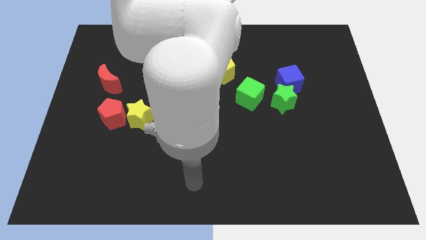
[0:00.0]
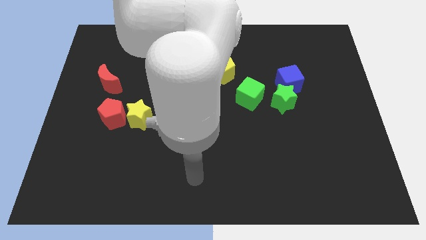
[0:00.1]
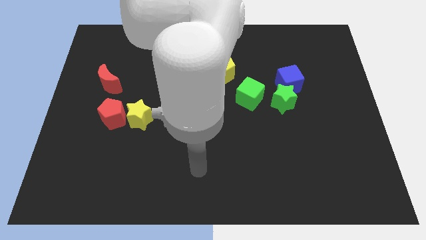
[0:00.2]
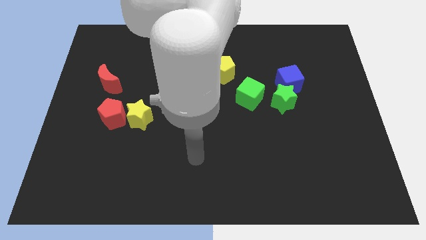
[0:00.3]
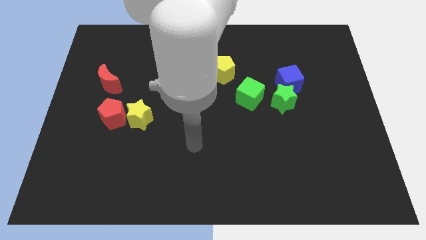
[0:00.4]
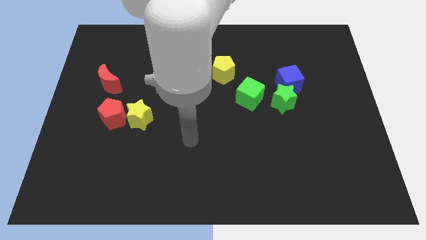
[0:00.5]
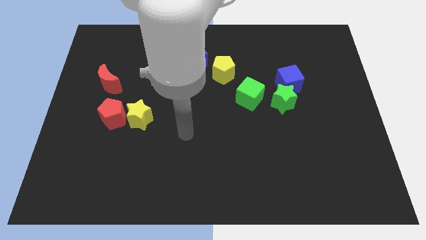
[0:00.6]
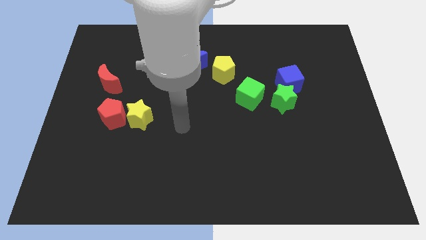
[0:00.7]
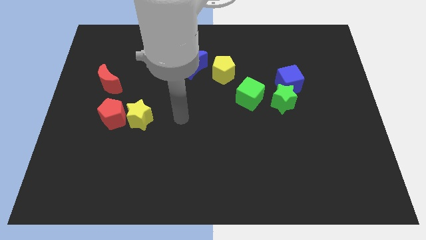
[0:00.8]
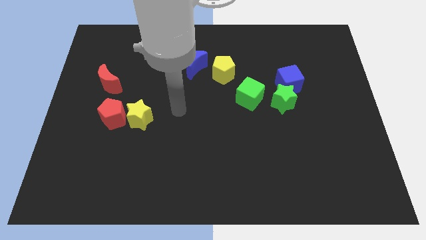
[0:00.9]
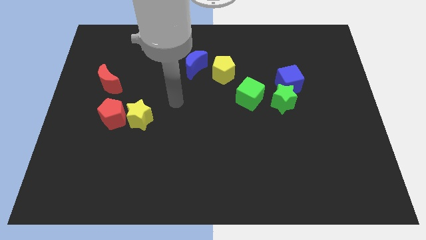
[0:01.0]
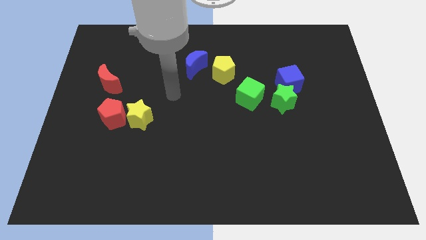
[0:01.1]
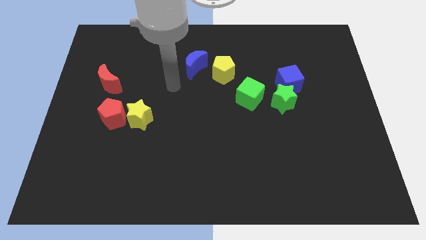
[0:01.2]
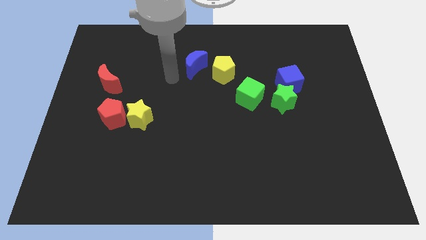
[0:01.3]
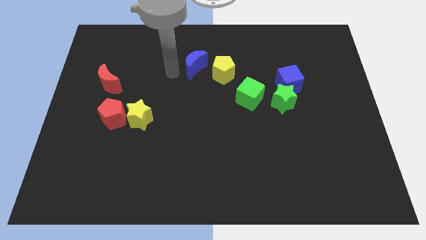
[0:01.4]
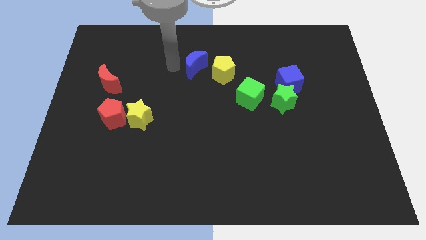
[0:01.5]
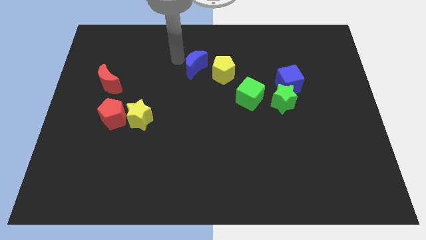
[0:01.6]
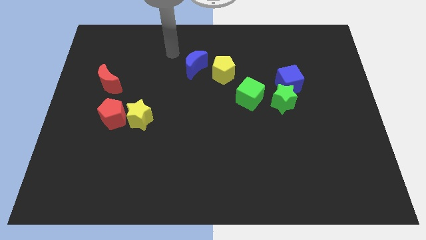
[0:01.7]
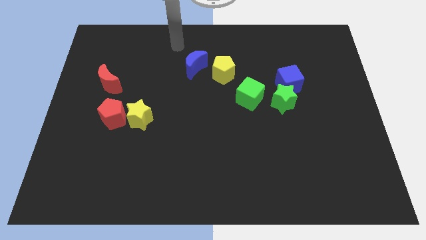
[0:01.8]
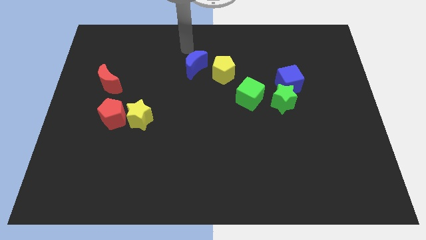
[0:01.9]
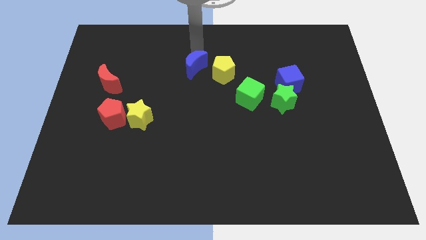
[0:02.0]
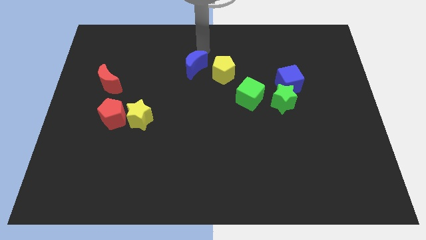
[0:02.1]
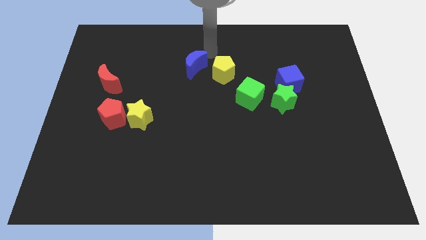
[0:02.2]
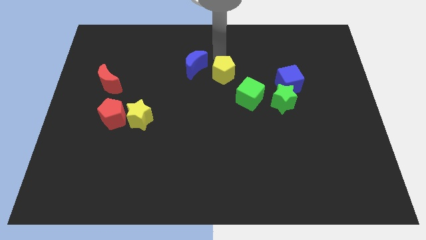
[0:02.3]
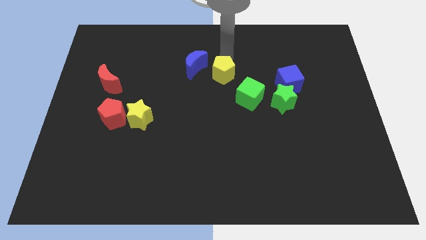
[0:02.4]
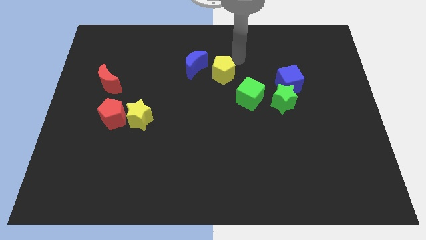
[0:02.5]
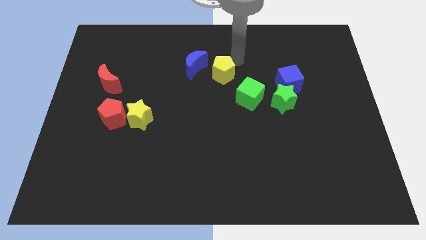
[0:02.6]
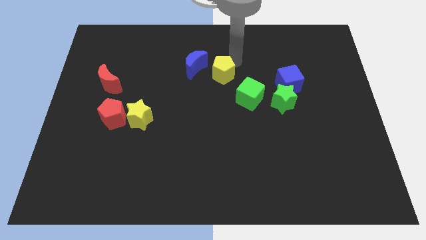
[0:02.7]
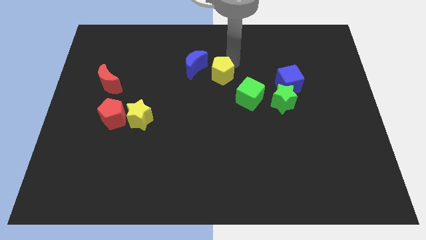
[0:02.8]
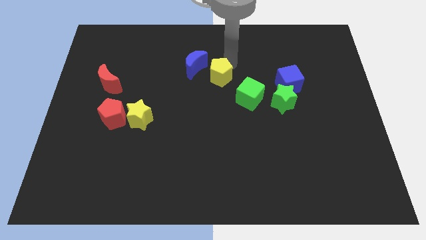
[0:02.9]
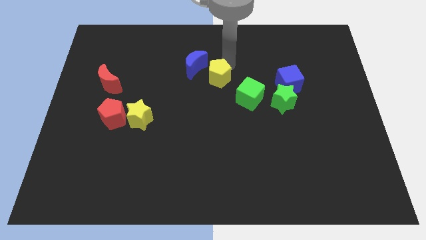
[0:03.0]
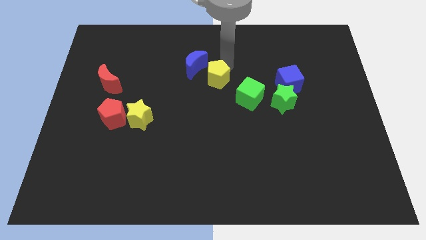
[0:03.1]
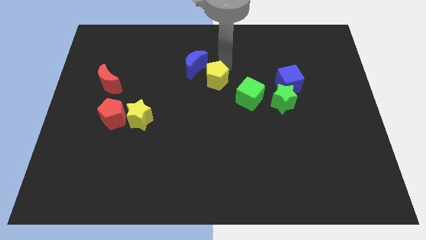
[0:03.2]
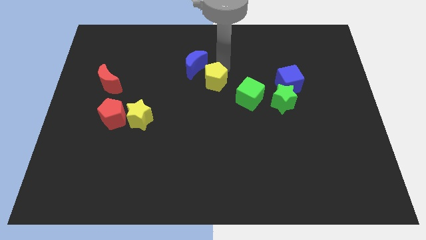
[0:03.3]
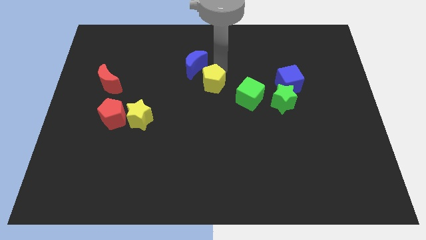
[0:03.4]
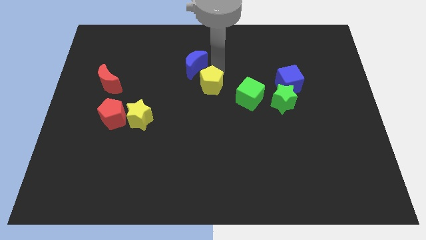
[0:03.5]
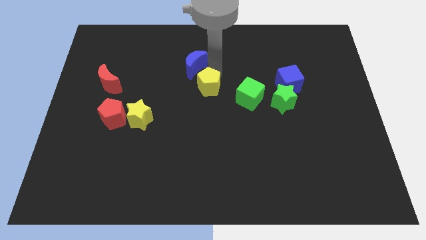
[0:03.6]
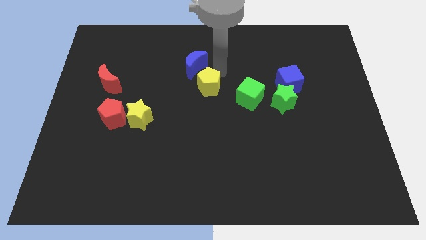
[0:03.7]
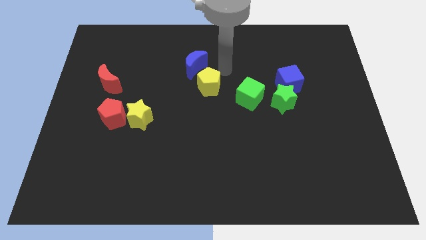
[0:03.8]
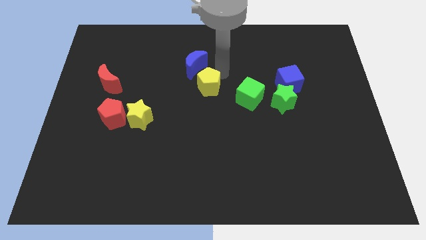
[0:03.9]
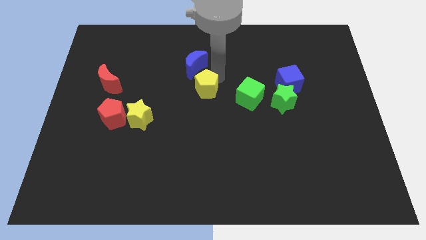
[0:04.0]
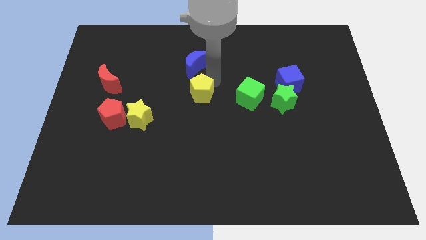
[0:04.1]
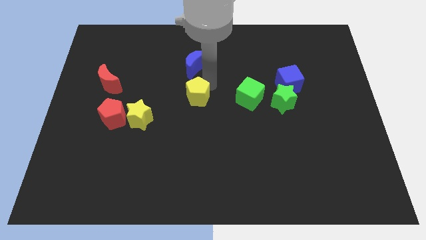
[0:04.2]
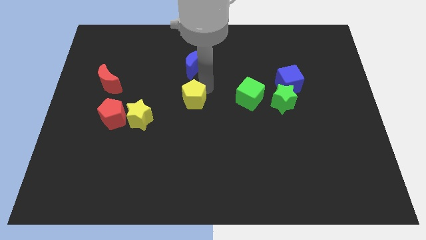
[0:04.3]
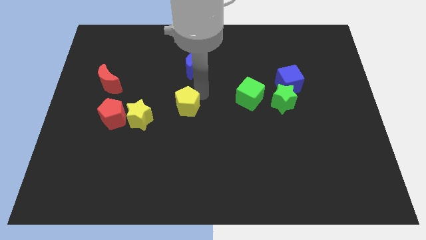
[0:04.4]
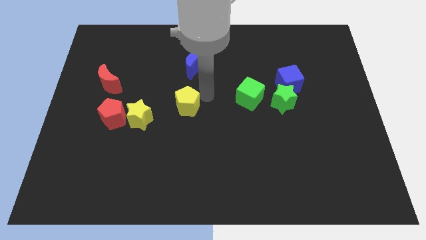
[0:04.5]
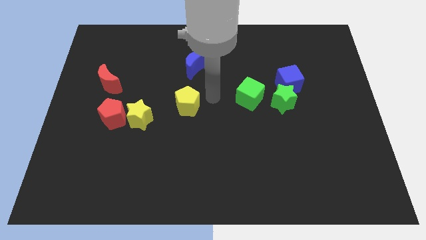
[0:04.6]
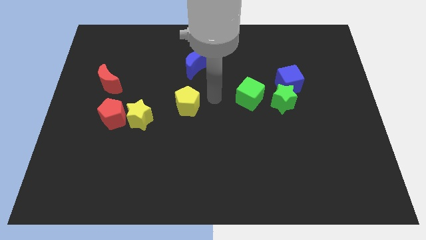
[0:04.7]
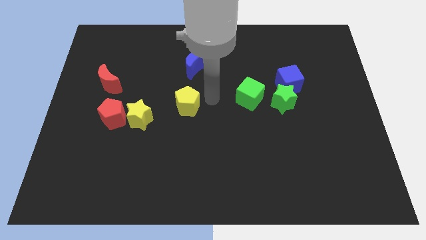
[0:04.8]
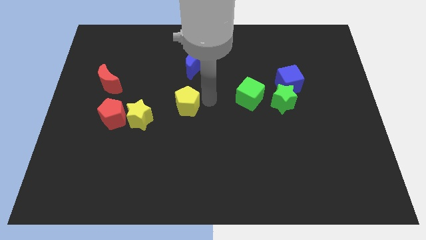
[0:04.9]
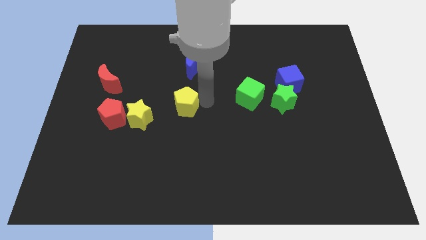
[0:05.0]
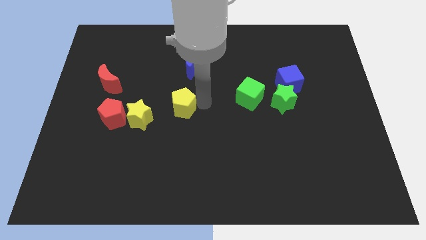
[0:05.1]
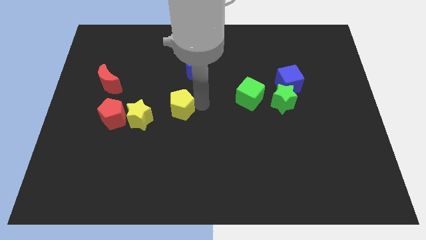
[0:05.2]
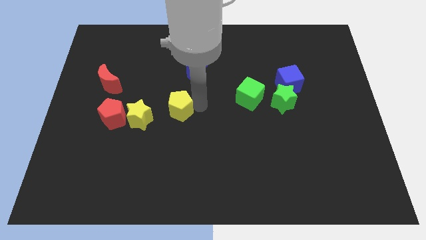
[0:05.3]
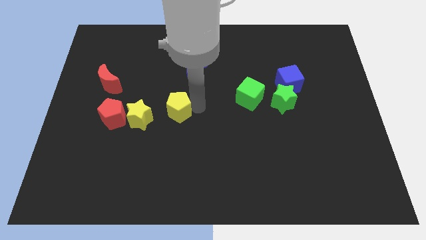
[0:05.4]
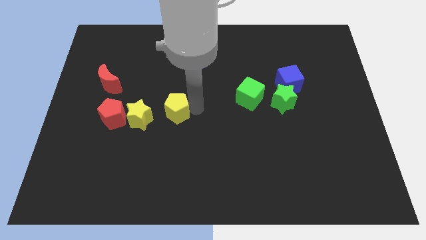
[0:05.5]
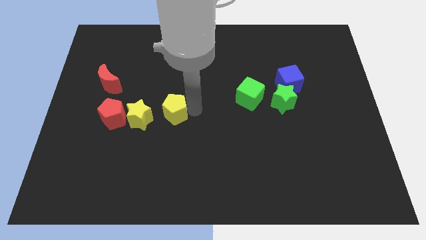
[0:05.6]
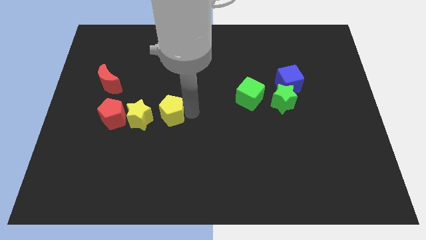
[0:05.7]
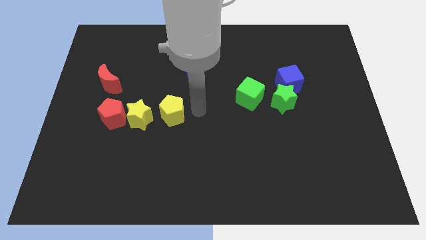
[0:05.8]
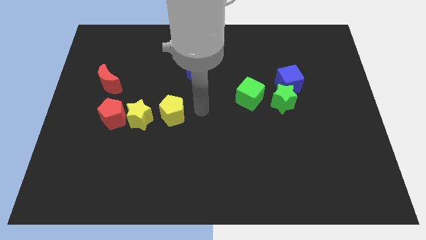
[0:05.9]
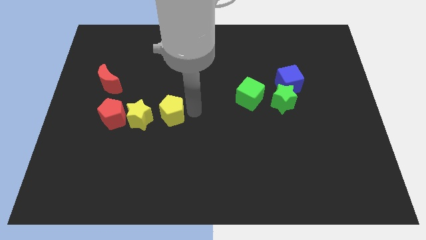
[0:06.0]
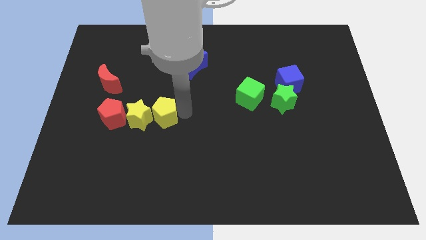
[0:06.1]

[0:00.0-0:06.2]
slide the yellow pentagon towards the yellow star

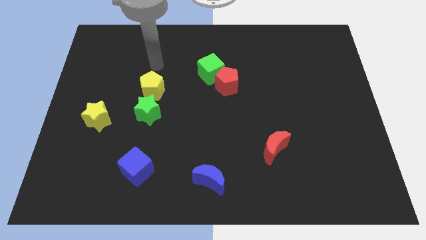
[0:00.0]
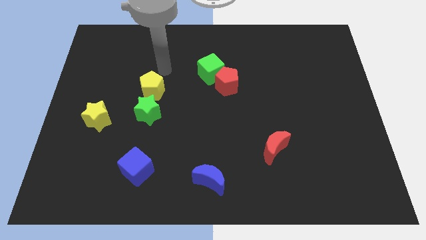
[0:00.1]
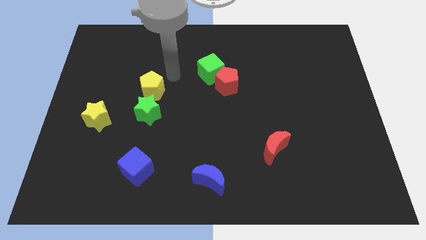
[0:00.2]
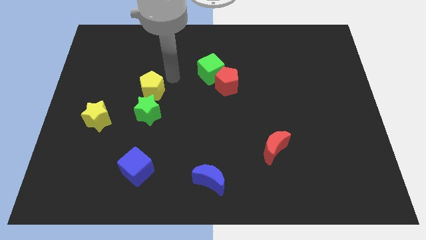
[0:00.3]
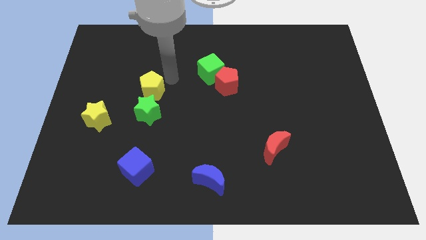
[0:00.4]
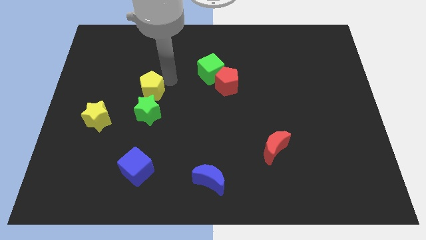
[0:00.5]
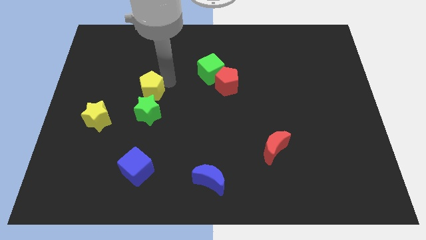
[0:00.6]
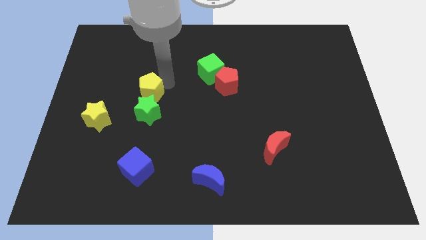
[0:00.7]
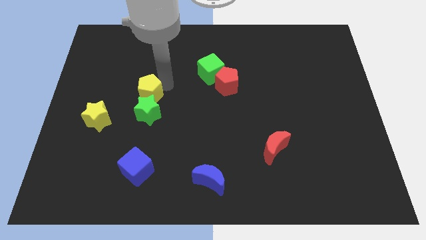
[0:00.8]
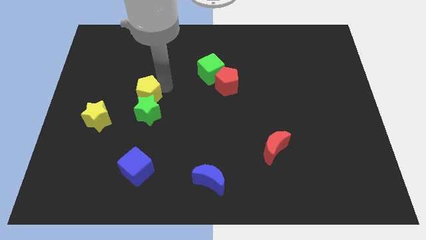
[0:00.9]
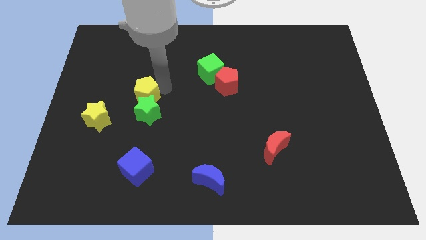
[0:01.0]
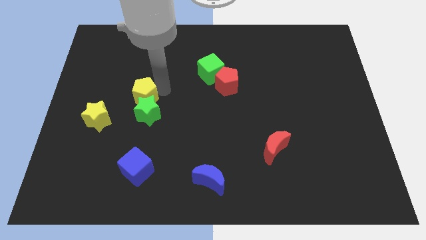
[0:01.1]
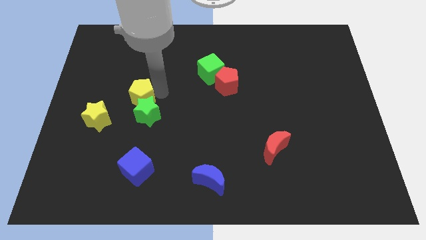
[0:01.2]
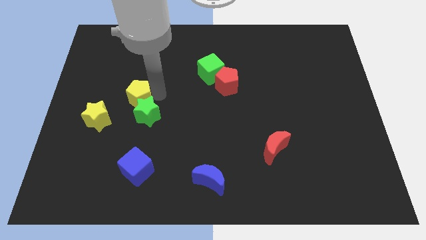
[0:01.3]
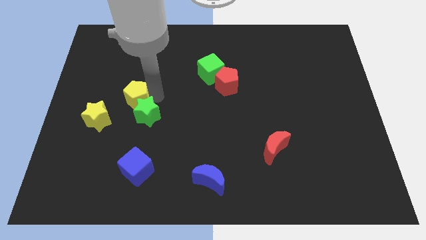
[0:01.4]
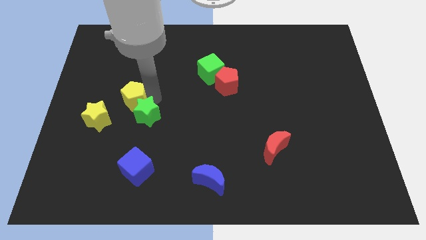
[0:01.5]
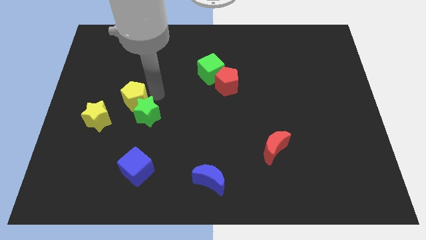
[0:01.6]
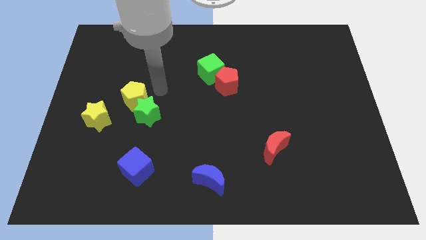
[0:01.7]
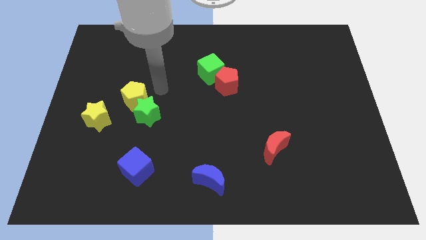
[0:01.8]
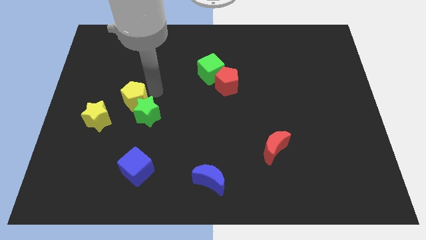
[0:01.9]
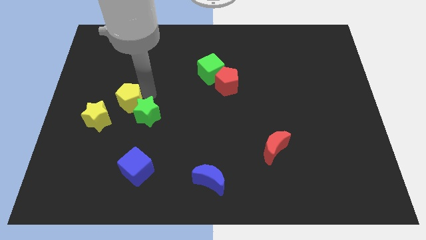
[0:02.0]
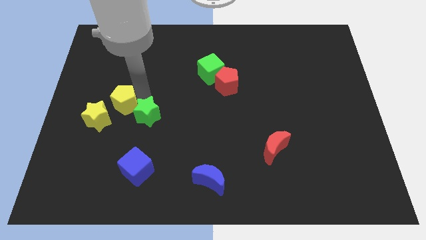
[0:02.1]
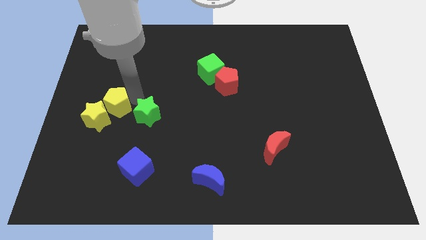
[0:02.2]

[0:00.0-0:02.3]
slide the yellow pentagon to the yellow star
